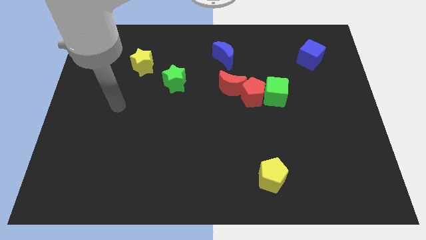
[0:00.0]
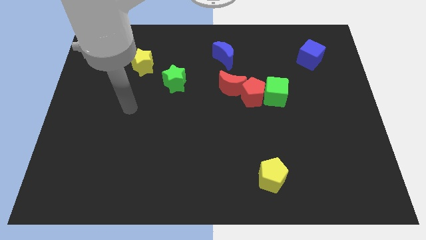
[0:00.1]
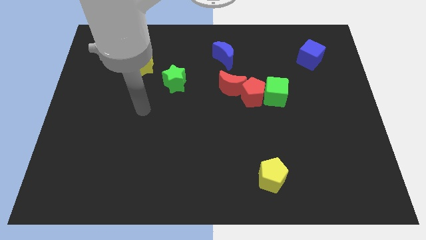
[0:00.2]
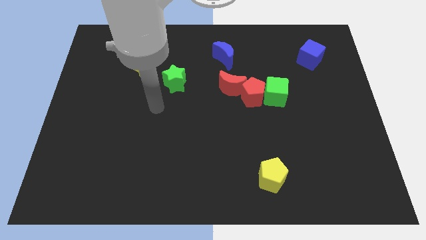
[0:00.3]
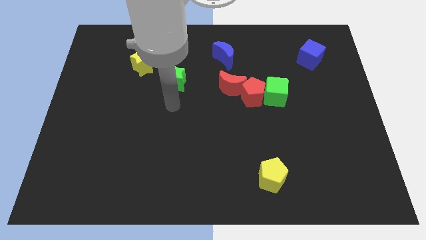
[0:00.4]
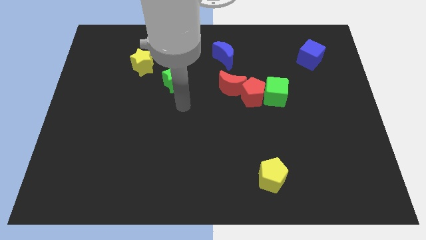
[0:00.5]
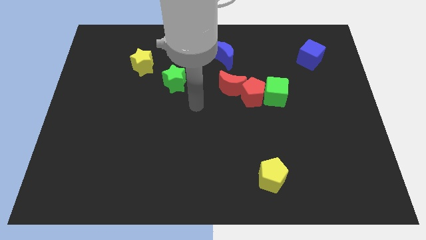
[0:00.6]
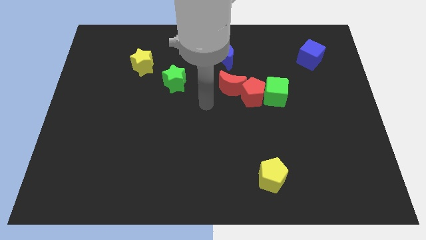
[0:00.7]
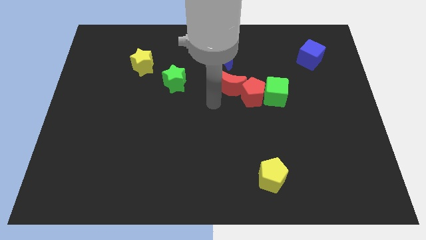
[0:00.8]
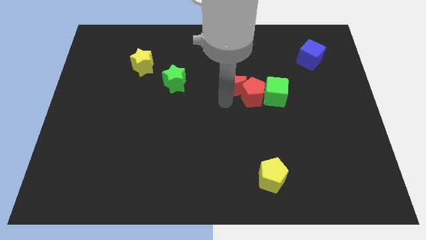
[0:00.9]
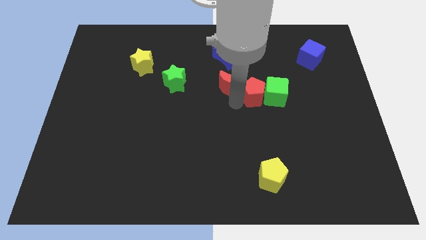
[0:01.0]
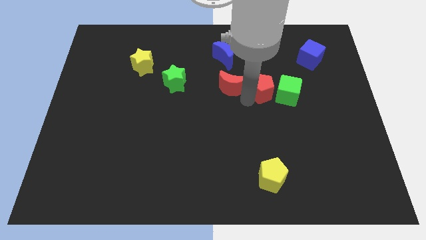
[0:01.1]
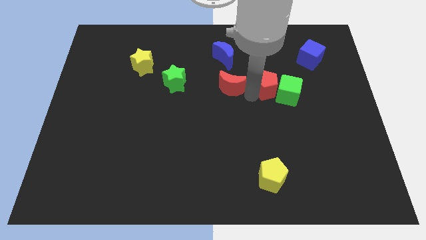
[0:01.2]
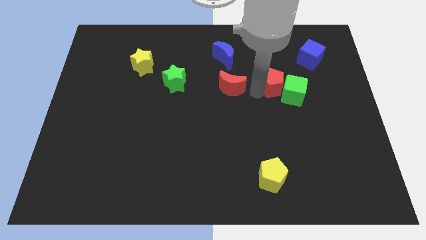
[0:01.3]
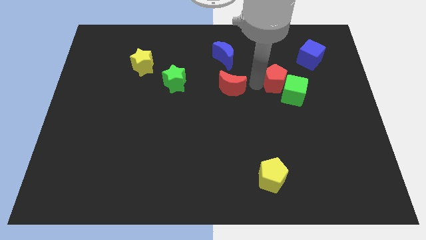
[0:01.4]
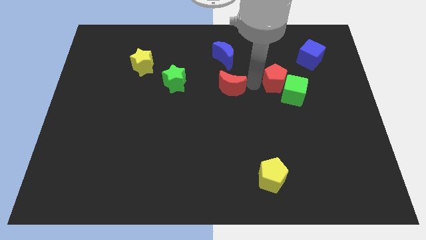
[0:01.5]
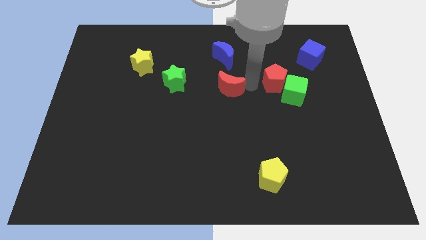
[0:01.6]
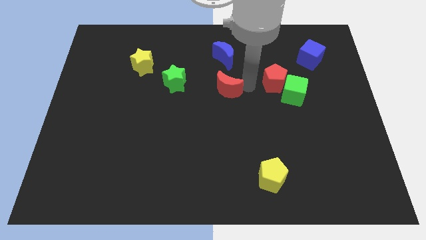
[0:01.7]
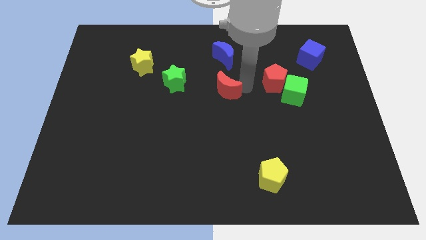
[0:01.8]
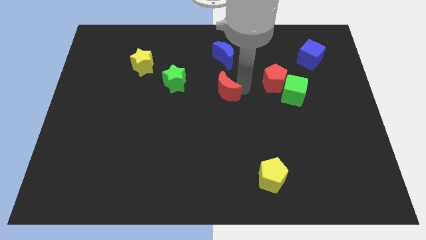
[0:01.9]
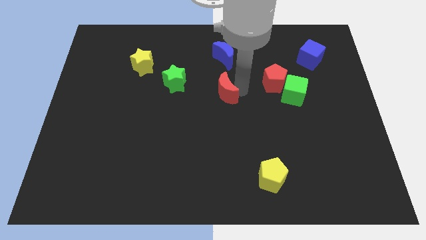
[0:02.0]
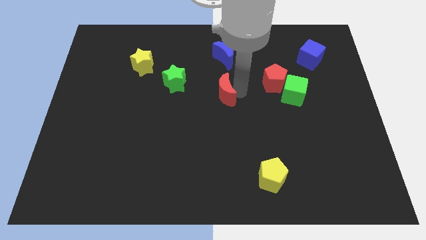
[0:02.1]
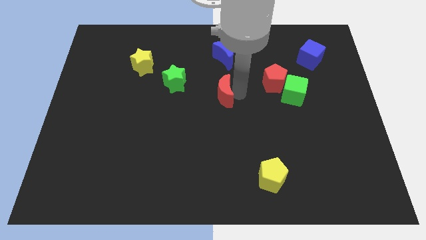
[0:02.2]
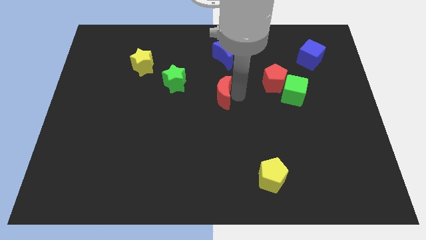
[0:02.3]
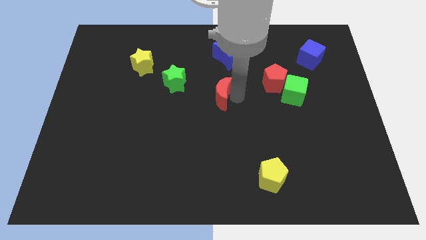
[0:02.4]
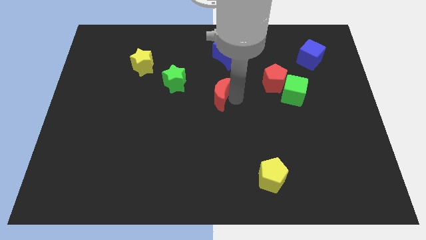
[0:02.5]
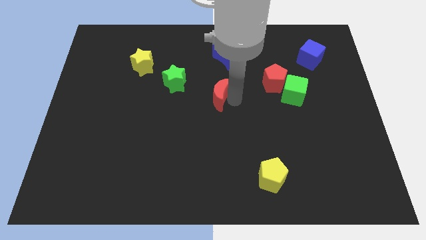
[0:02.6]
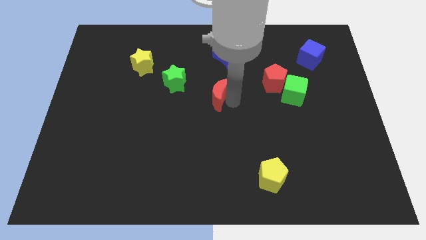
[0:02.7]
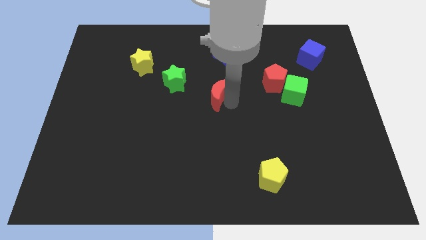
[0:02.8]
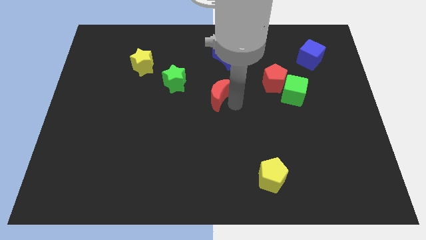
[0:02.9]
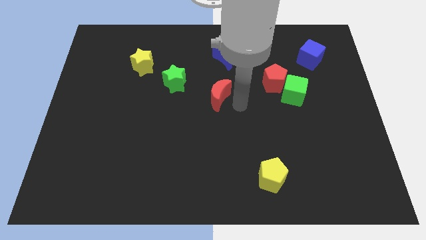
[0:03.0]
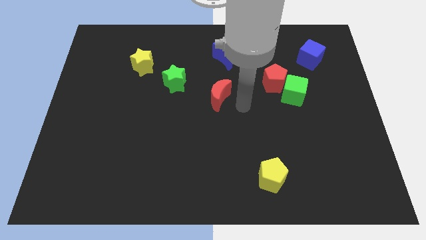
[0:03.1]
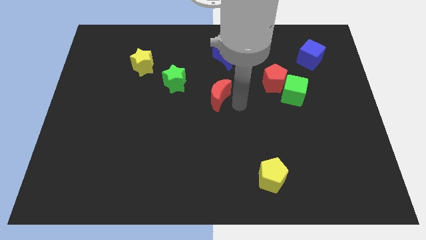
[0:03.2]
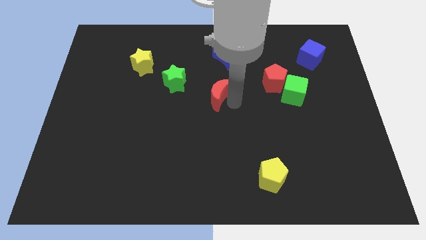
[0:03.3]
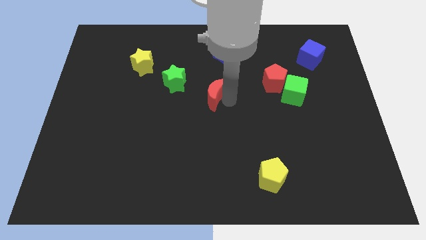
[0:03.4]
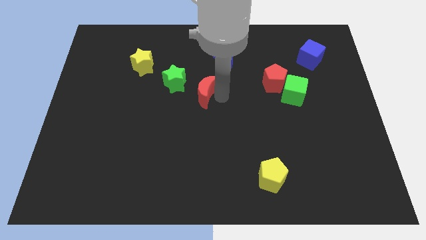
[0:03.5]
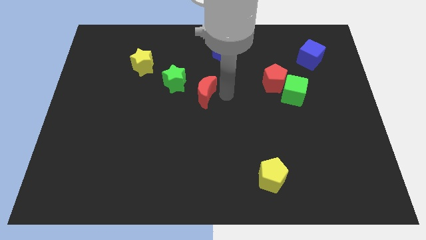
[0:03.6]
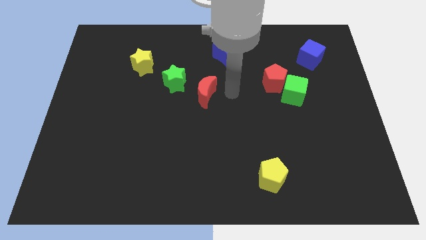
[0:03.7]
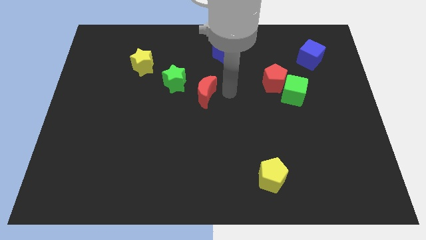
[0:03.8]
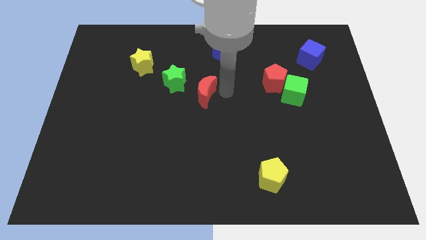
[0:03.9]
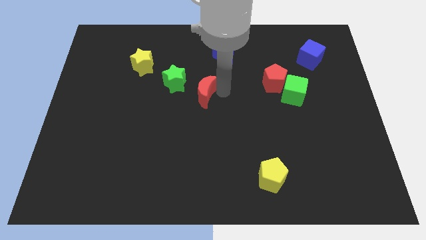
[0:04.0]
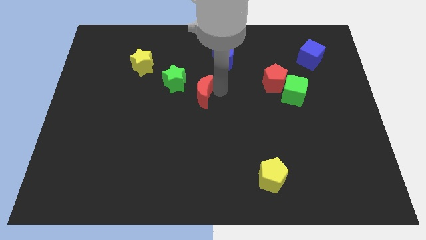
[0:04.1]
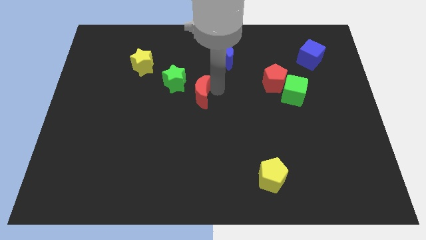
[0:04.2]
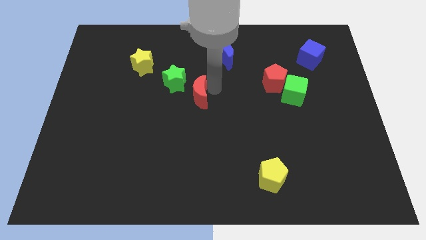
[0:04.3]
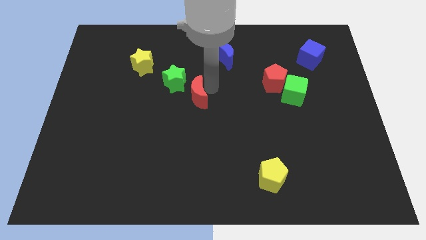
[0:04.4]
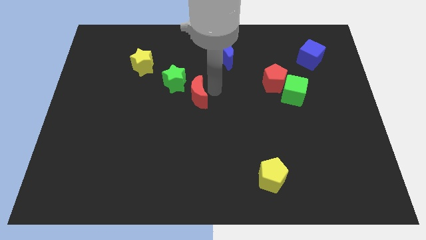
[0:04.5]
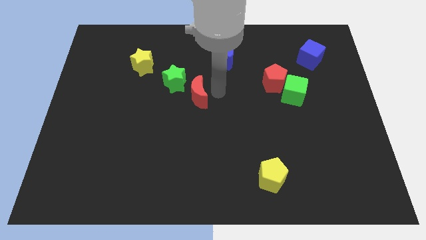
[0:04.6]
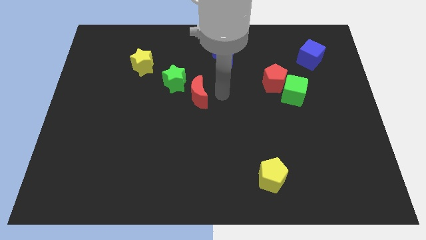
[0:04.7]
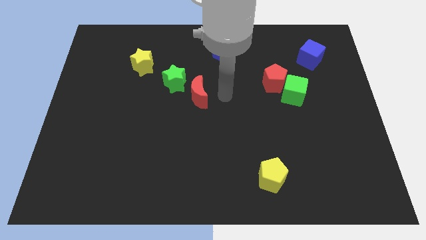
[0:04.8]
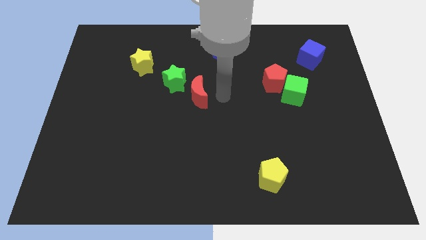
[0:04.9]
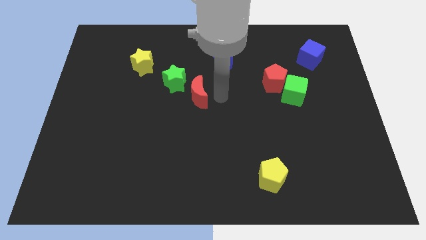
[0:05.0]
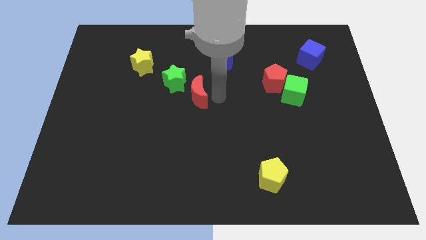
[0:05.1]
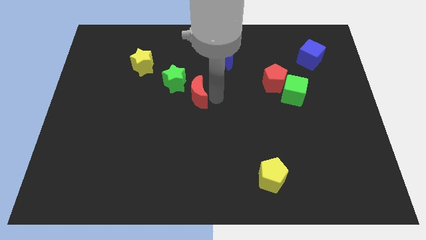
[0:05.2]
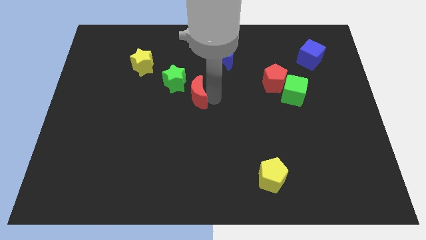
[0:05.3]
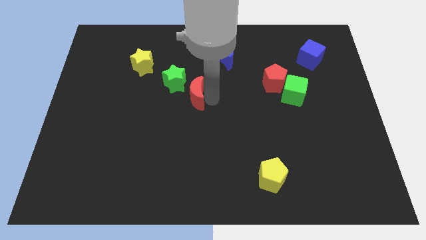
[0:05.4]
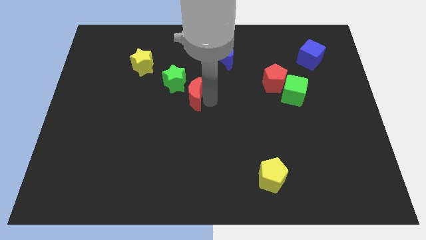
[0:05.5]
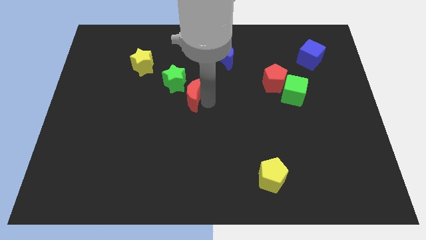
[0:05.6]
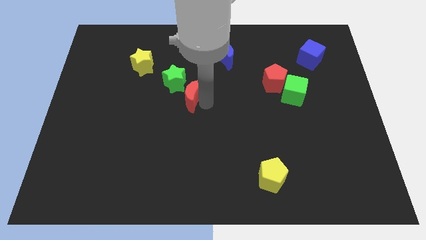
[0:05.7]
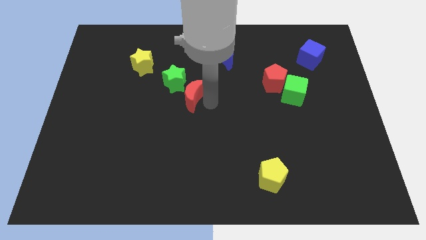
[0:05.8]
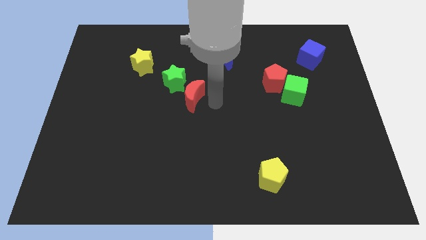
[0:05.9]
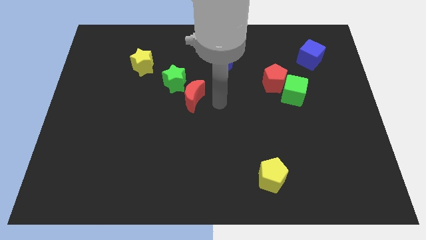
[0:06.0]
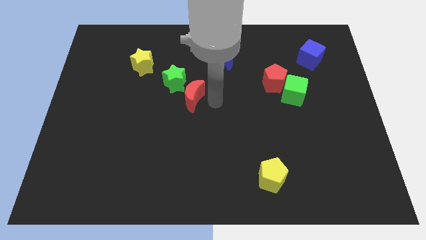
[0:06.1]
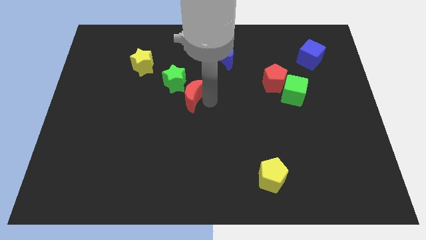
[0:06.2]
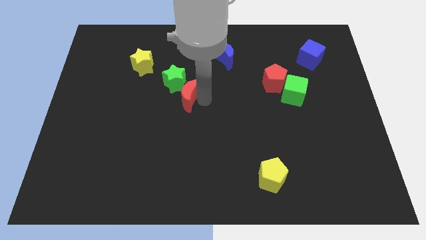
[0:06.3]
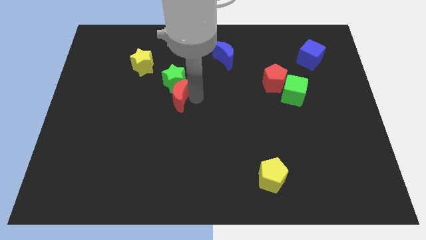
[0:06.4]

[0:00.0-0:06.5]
slide the red moon to the bottom left side of the green star

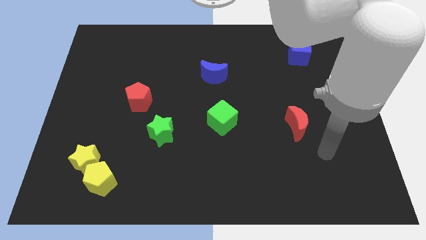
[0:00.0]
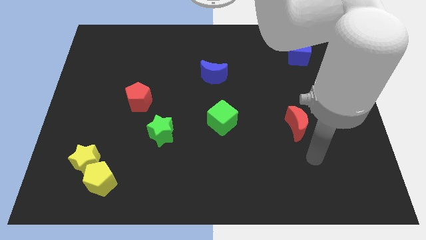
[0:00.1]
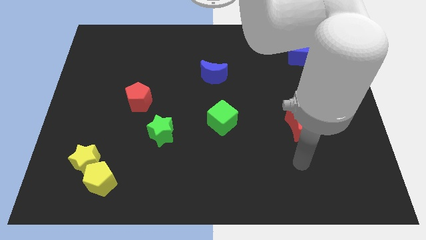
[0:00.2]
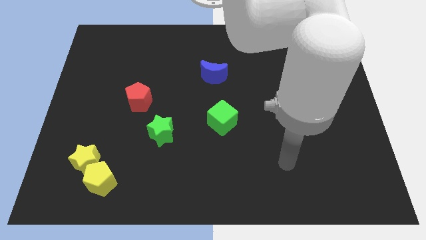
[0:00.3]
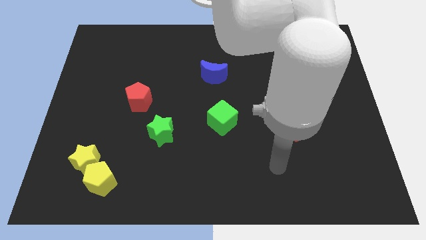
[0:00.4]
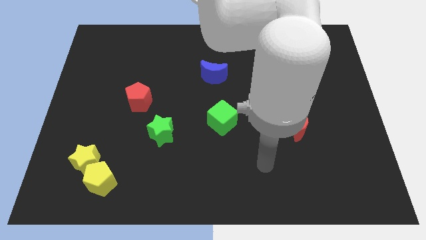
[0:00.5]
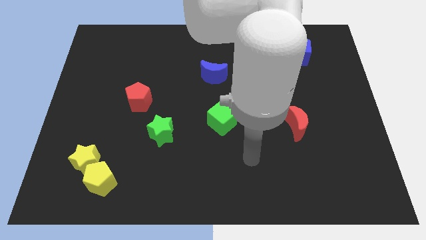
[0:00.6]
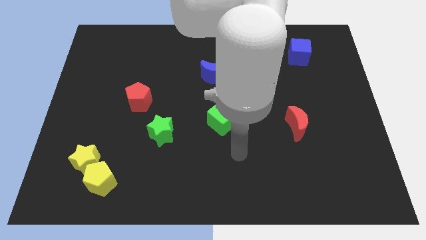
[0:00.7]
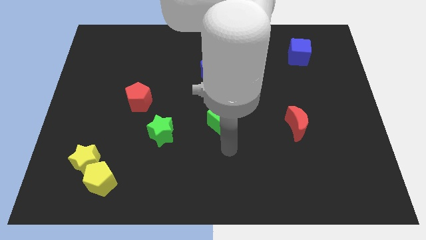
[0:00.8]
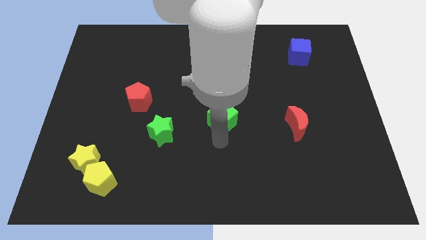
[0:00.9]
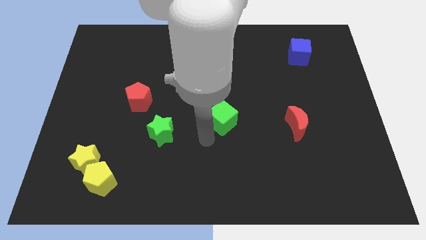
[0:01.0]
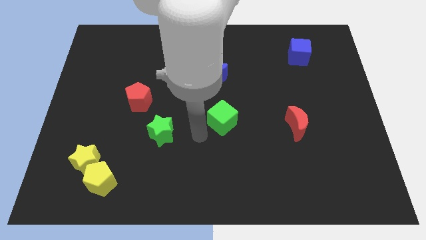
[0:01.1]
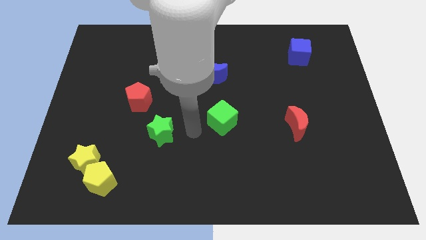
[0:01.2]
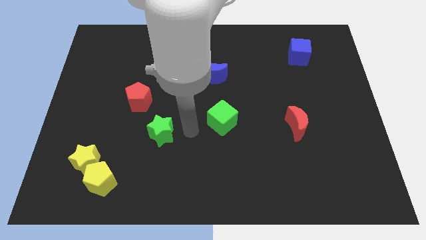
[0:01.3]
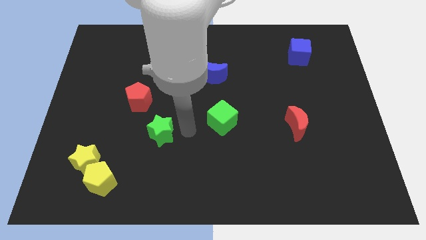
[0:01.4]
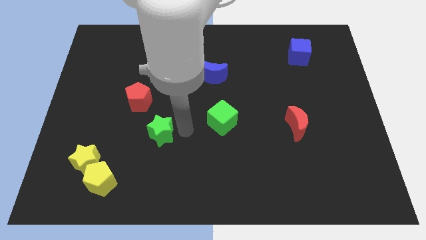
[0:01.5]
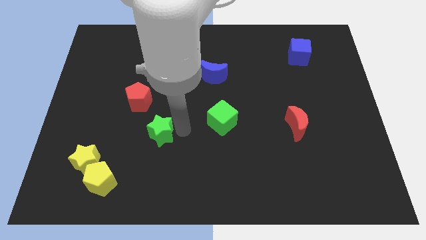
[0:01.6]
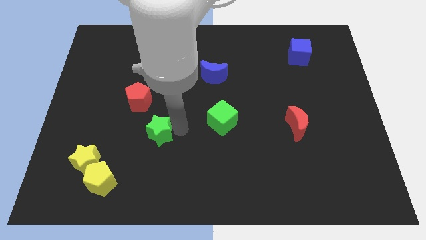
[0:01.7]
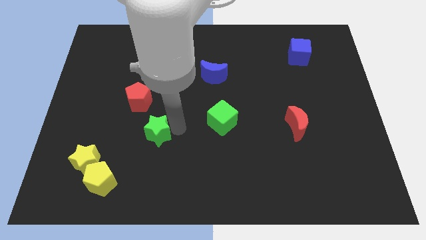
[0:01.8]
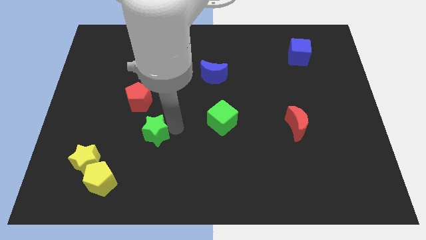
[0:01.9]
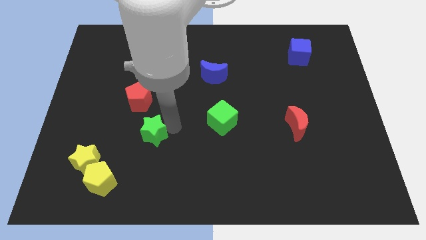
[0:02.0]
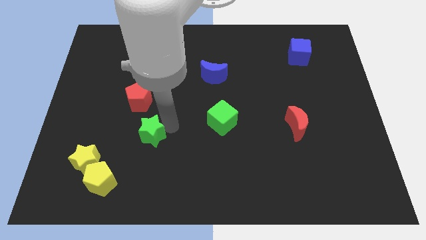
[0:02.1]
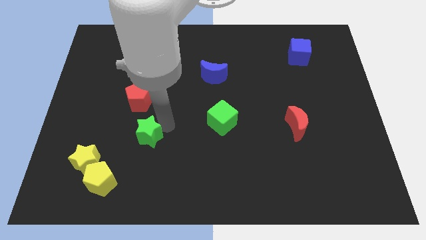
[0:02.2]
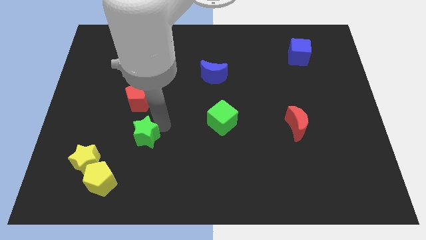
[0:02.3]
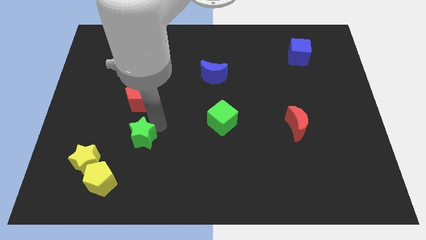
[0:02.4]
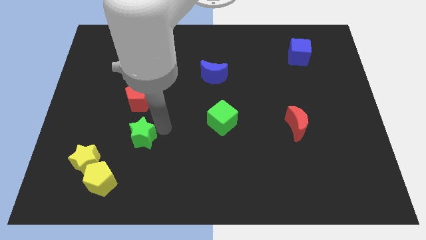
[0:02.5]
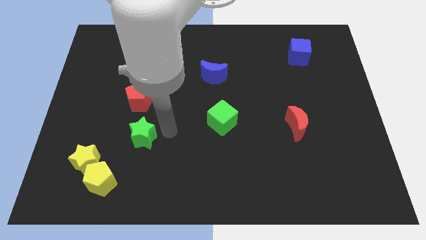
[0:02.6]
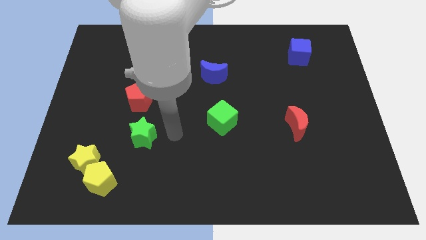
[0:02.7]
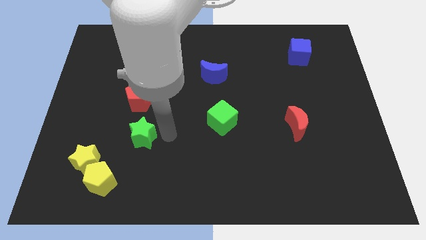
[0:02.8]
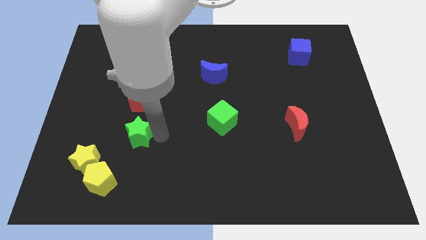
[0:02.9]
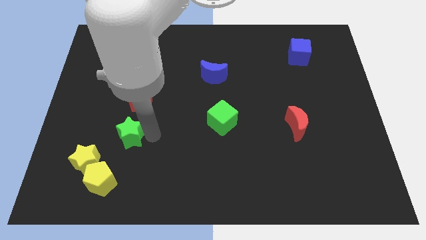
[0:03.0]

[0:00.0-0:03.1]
slide the green star above the yellow pentagon
